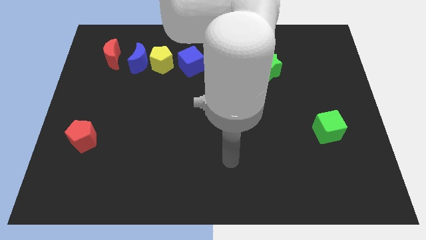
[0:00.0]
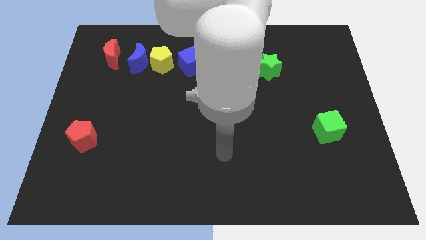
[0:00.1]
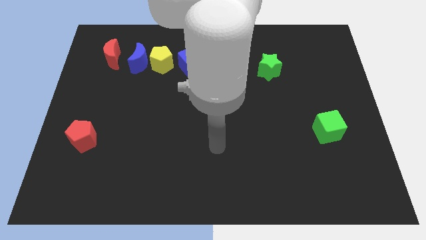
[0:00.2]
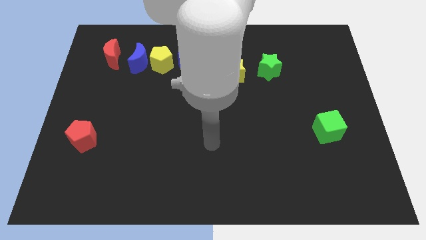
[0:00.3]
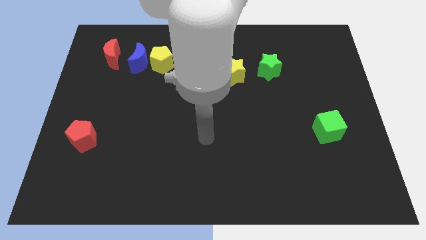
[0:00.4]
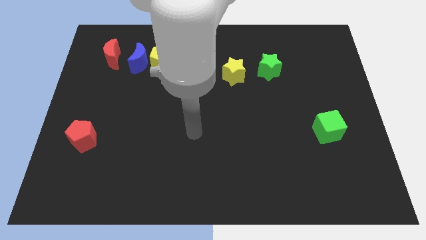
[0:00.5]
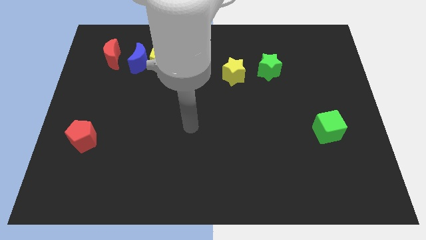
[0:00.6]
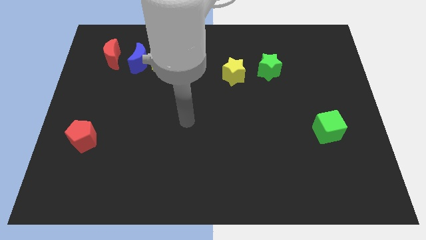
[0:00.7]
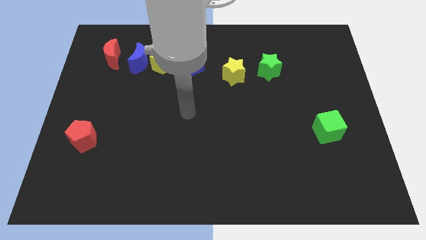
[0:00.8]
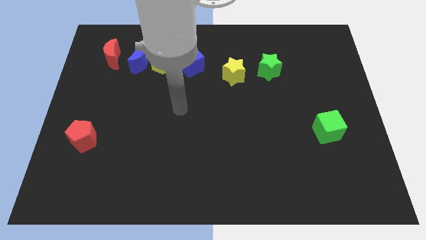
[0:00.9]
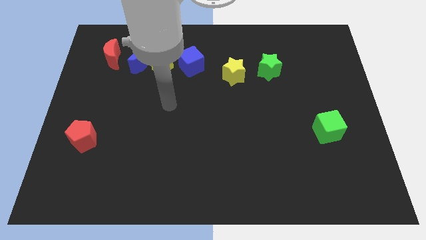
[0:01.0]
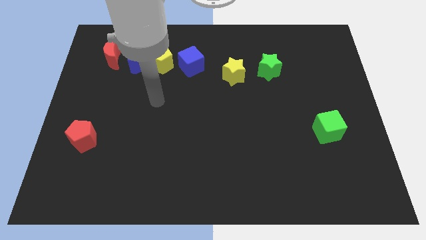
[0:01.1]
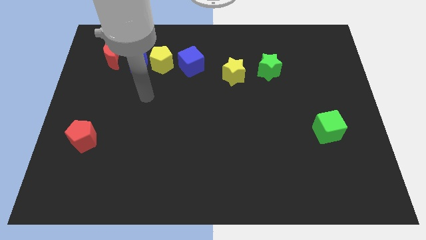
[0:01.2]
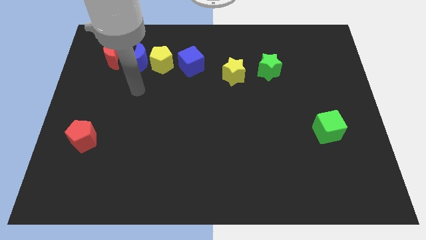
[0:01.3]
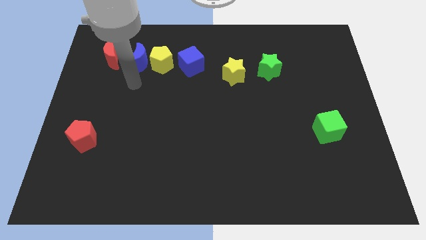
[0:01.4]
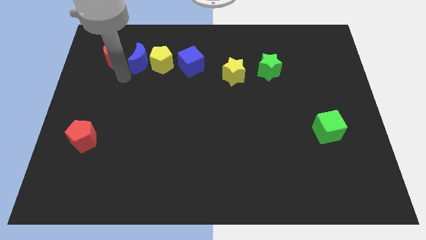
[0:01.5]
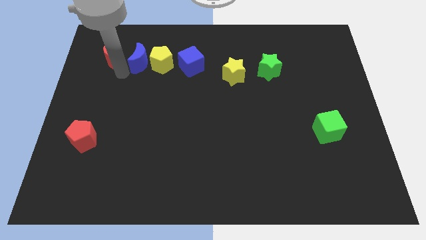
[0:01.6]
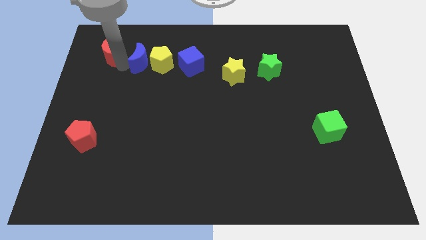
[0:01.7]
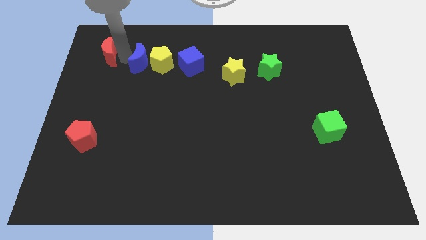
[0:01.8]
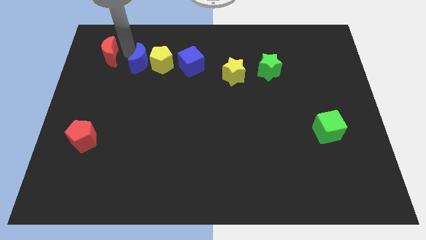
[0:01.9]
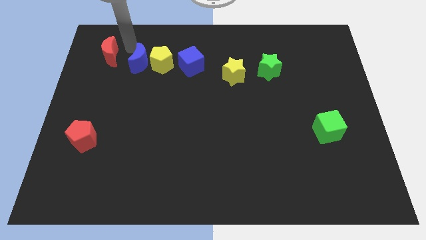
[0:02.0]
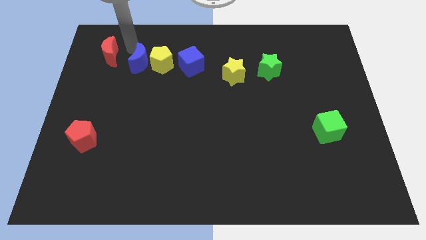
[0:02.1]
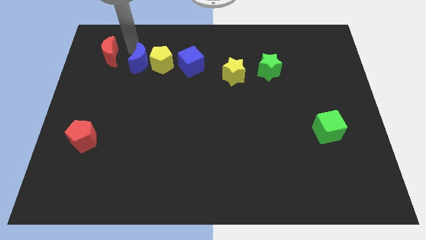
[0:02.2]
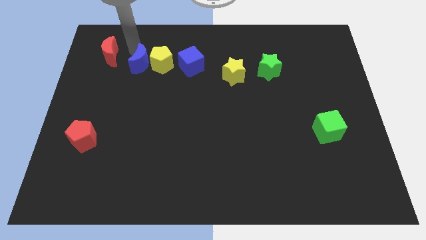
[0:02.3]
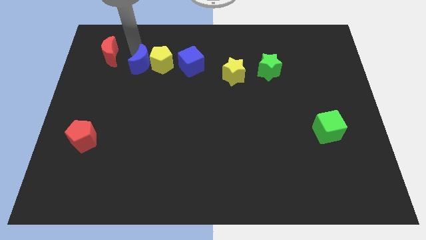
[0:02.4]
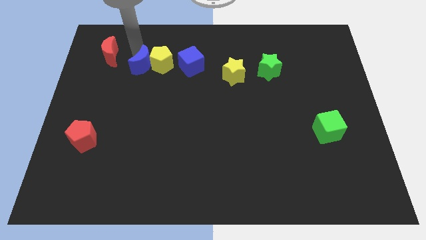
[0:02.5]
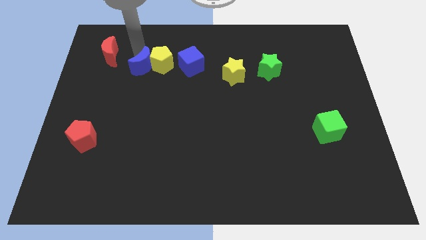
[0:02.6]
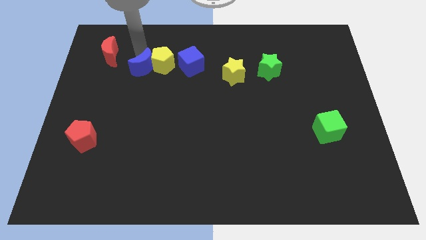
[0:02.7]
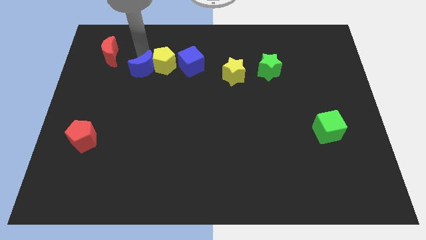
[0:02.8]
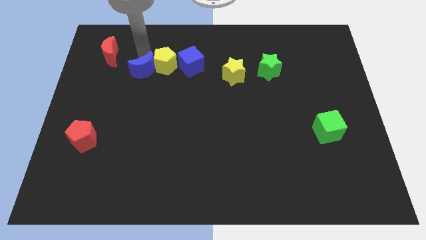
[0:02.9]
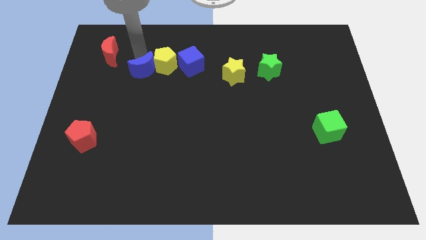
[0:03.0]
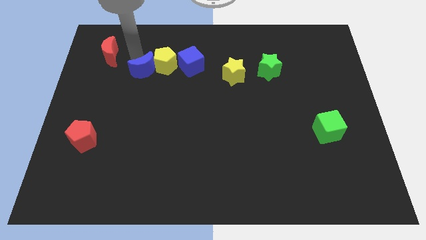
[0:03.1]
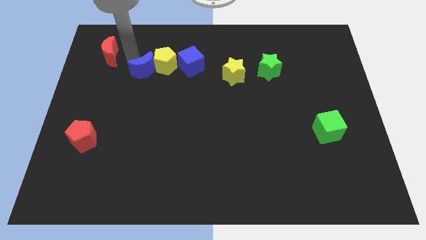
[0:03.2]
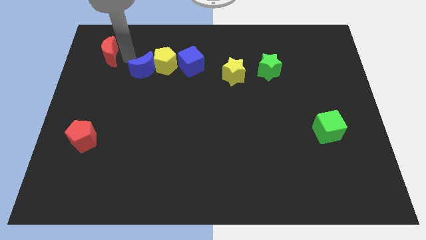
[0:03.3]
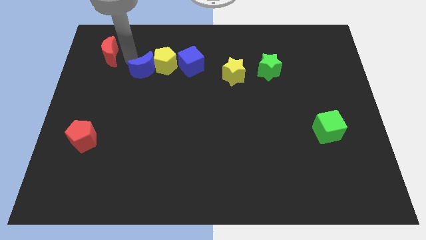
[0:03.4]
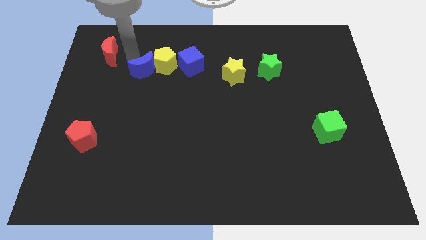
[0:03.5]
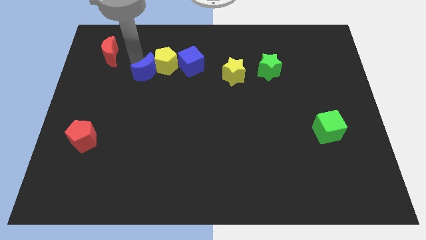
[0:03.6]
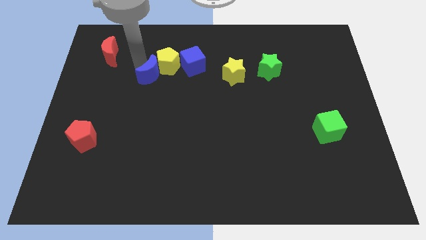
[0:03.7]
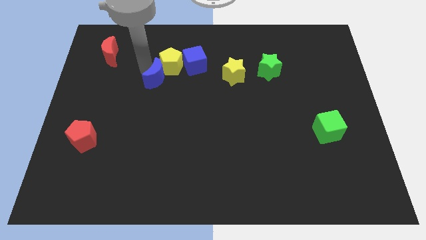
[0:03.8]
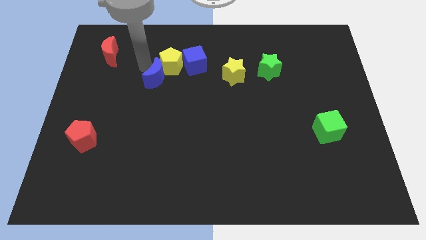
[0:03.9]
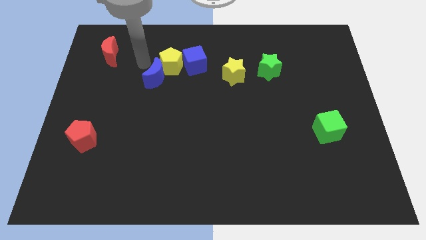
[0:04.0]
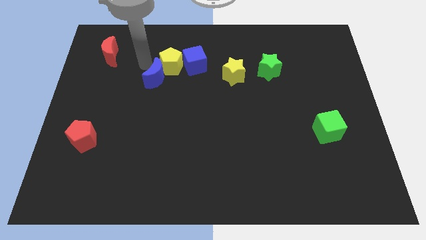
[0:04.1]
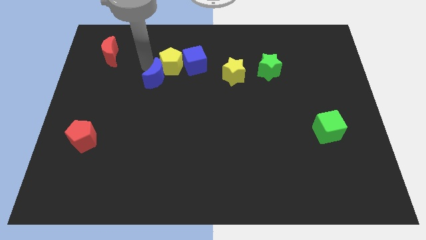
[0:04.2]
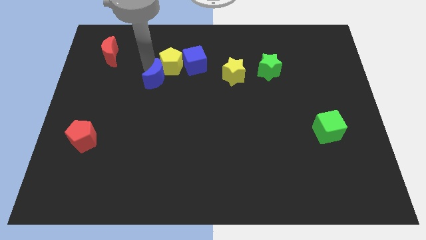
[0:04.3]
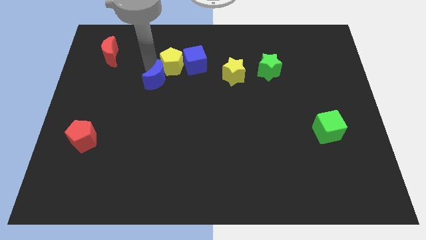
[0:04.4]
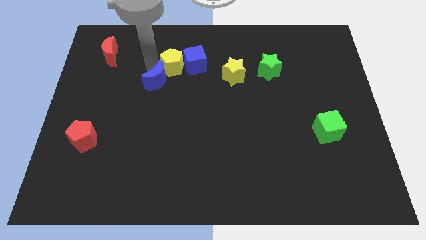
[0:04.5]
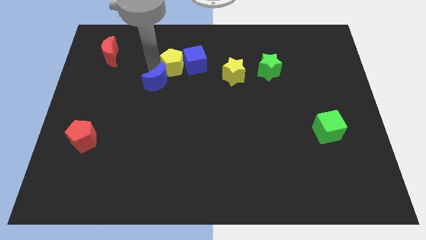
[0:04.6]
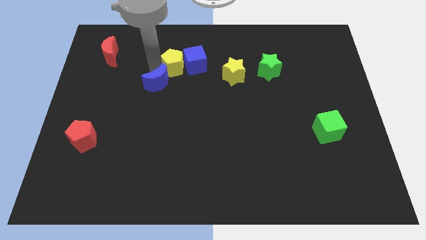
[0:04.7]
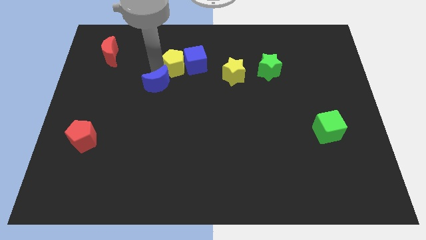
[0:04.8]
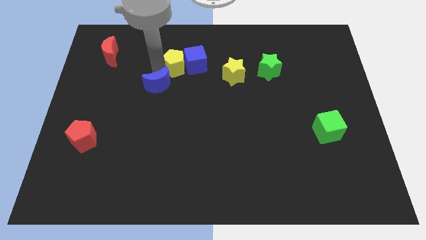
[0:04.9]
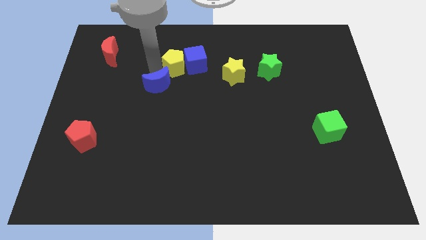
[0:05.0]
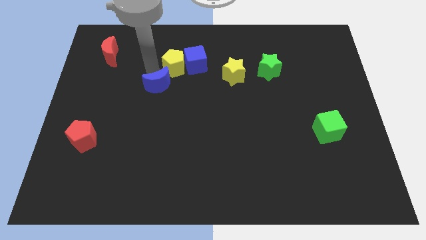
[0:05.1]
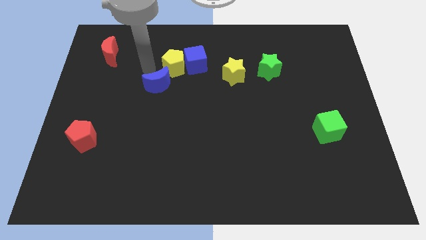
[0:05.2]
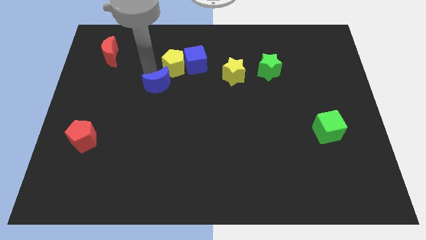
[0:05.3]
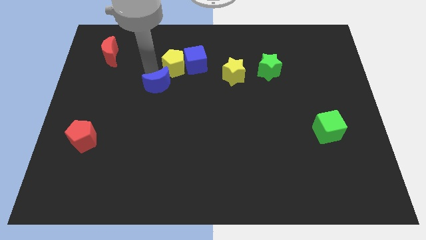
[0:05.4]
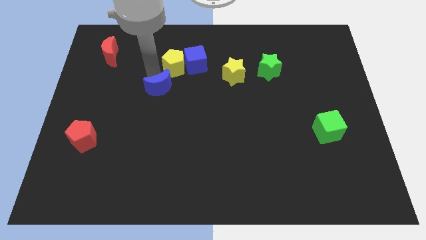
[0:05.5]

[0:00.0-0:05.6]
move the blue moon away from the yellow pentagon and red moon

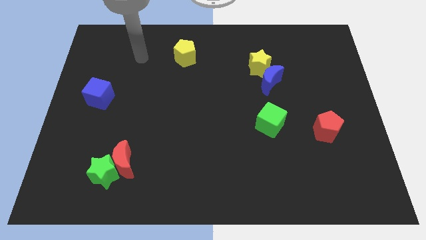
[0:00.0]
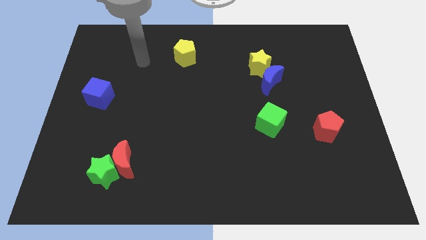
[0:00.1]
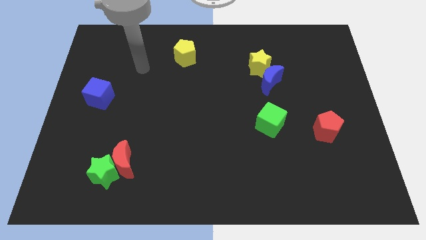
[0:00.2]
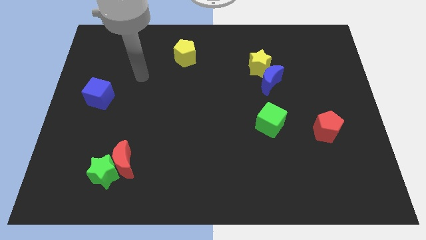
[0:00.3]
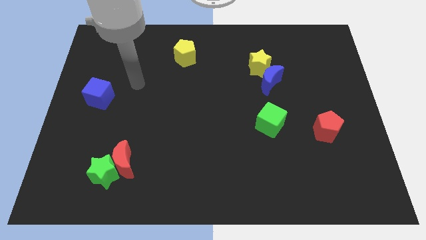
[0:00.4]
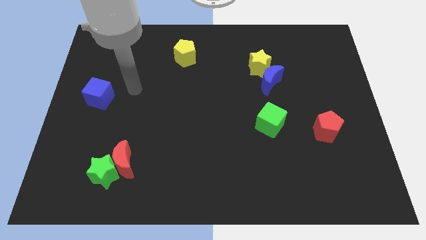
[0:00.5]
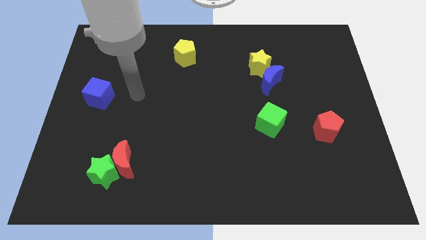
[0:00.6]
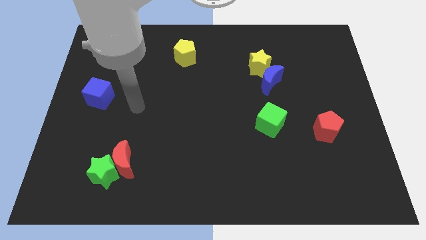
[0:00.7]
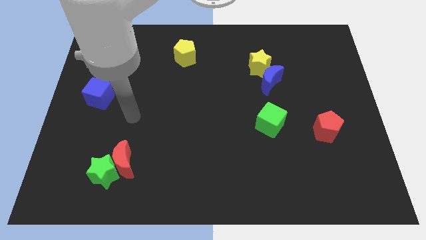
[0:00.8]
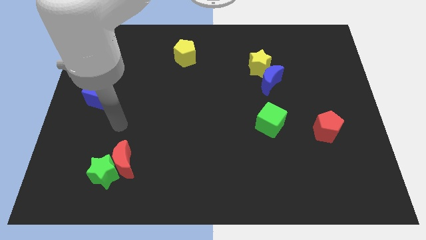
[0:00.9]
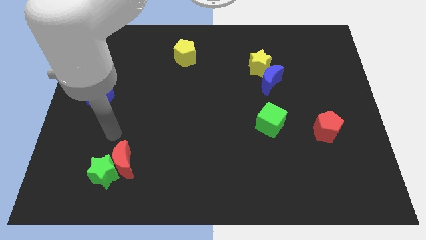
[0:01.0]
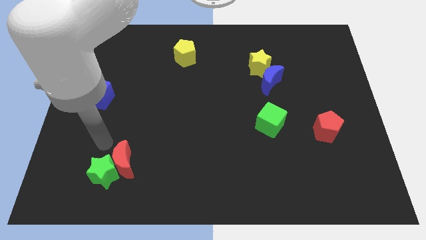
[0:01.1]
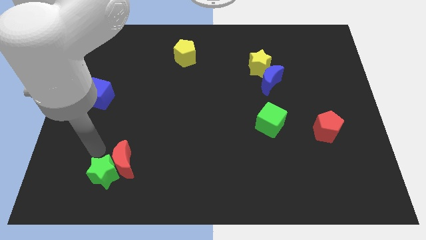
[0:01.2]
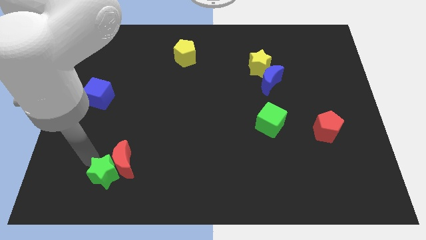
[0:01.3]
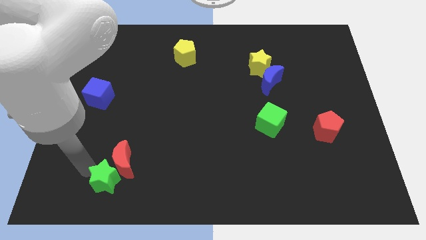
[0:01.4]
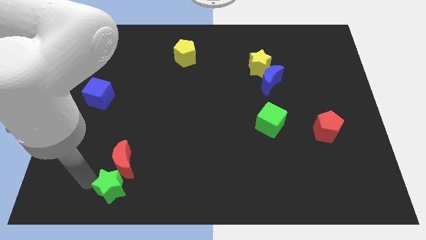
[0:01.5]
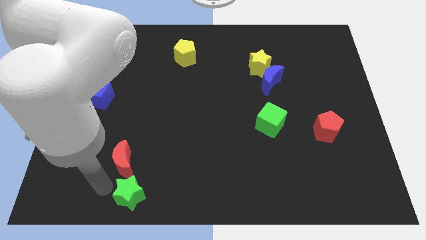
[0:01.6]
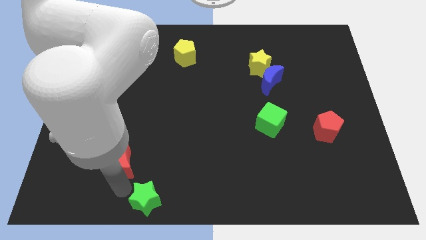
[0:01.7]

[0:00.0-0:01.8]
move the red moon away from the green star

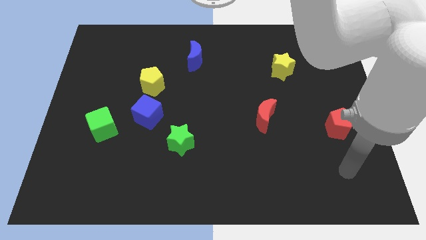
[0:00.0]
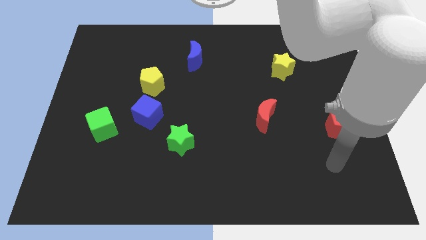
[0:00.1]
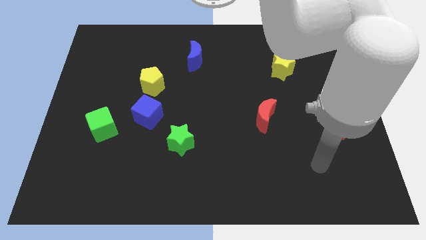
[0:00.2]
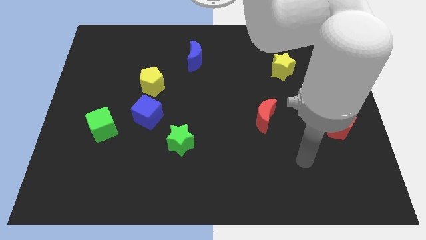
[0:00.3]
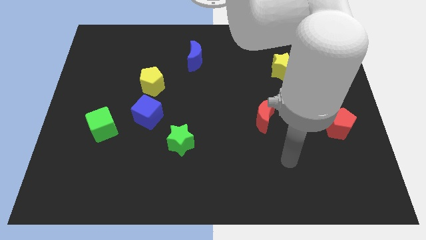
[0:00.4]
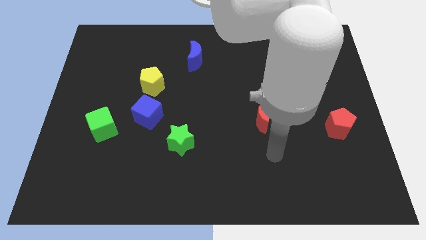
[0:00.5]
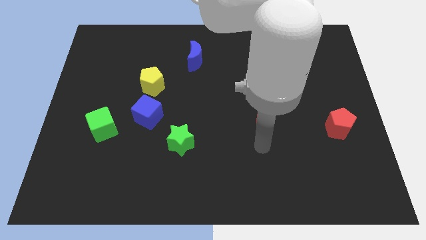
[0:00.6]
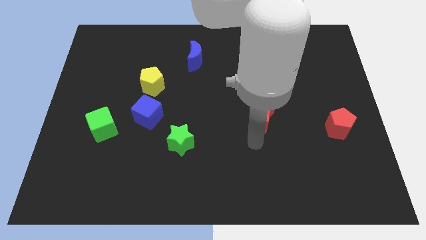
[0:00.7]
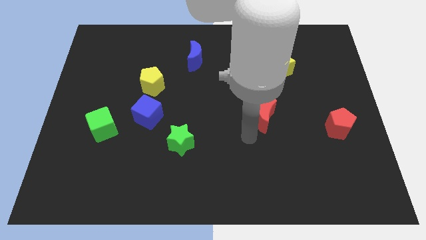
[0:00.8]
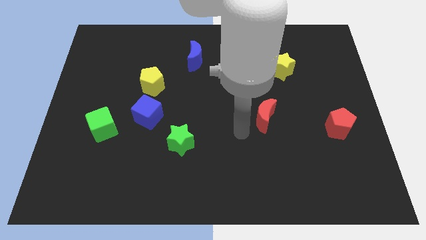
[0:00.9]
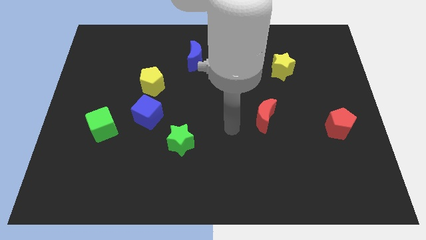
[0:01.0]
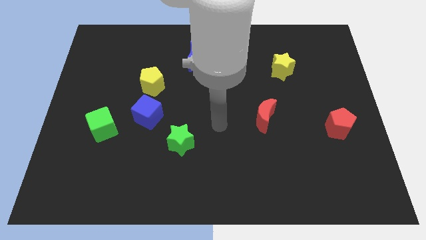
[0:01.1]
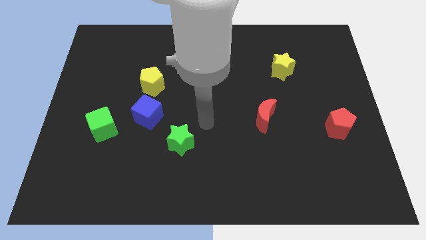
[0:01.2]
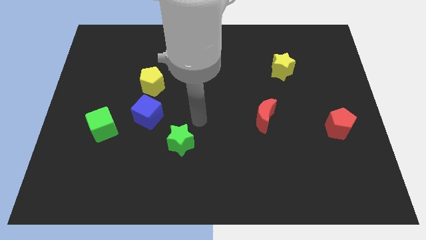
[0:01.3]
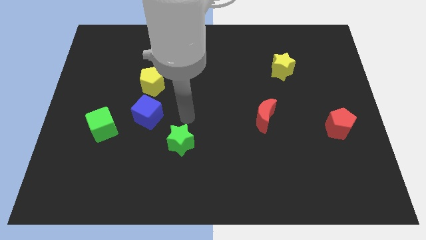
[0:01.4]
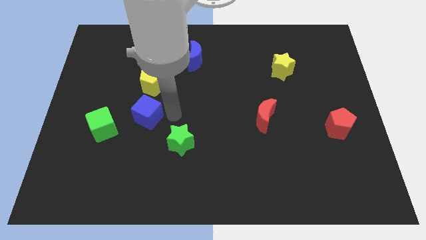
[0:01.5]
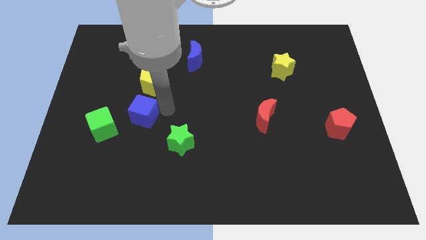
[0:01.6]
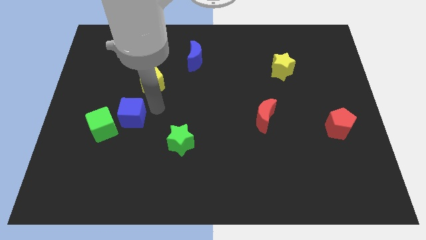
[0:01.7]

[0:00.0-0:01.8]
pull the yellow pentagon apart from the blue cube
